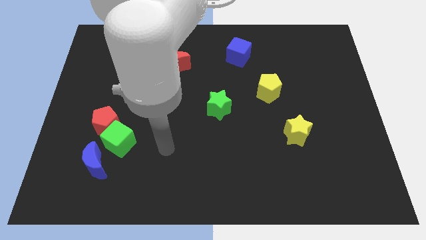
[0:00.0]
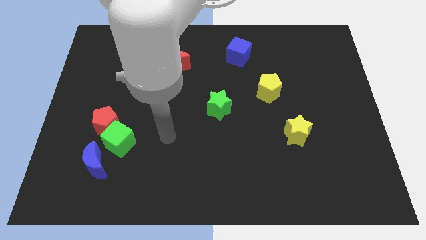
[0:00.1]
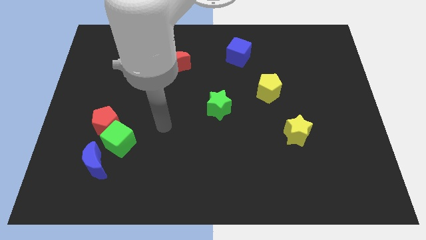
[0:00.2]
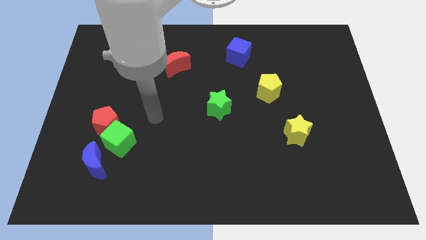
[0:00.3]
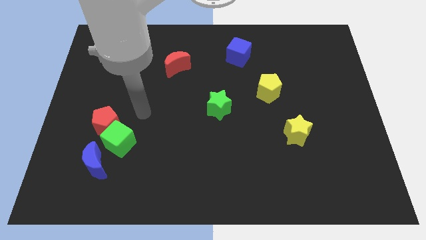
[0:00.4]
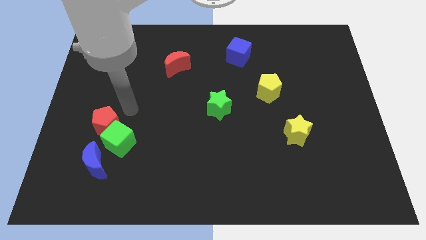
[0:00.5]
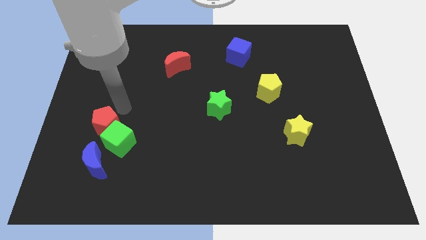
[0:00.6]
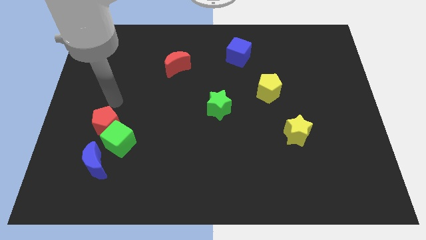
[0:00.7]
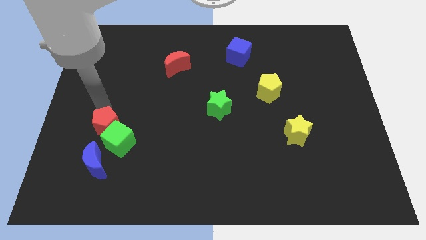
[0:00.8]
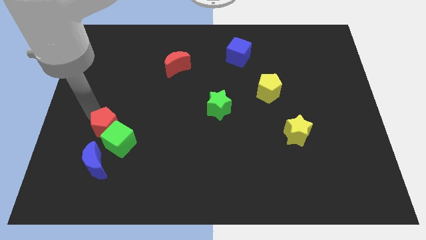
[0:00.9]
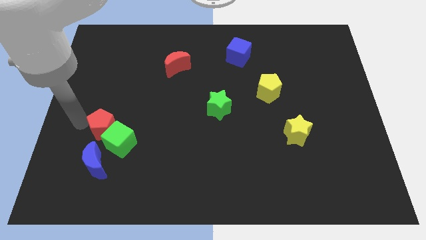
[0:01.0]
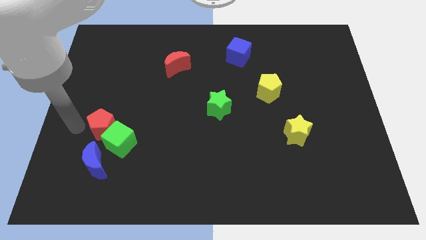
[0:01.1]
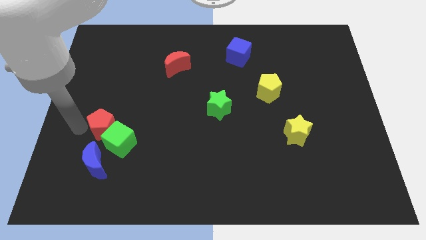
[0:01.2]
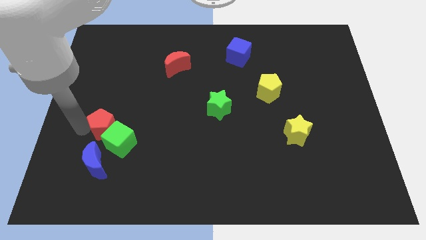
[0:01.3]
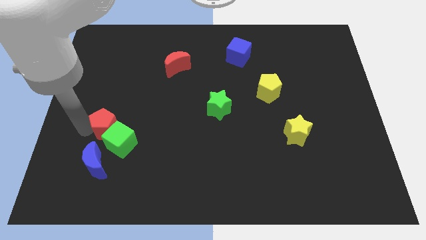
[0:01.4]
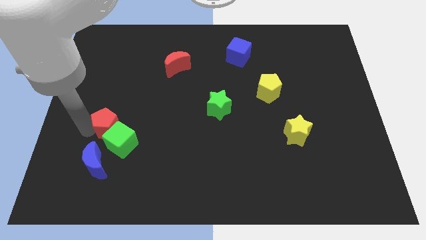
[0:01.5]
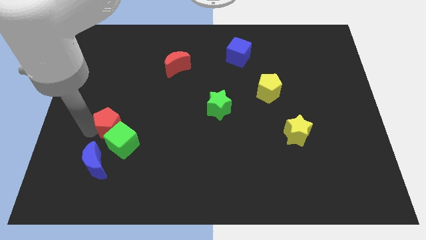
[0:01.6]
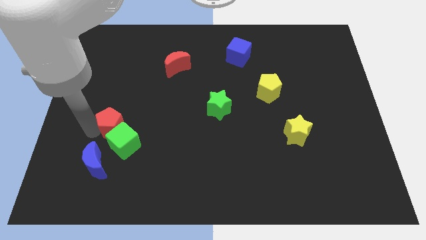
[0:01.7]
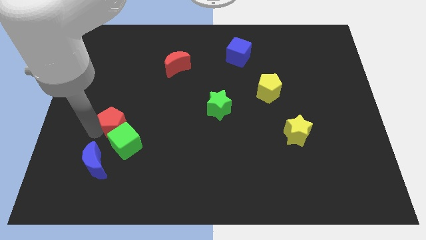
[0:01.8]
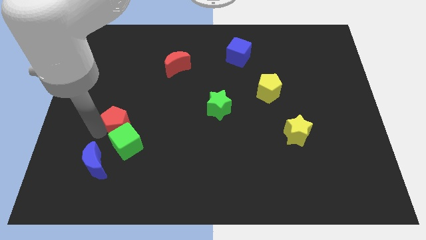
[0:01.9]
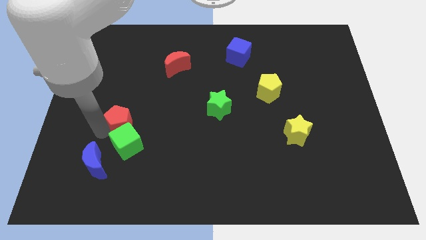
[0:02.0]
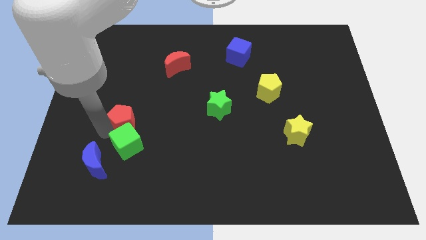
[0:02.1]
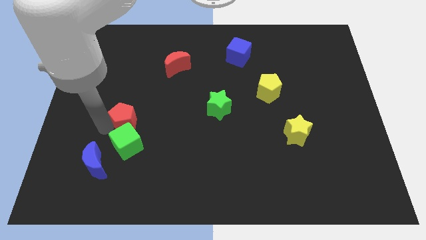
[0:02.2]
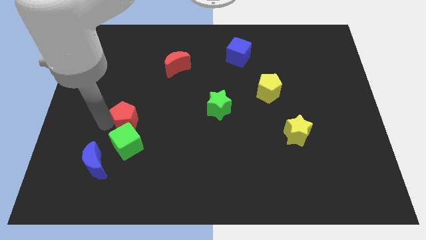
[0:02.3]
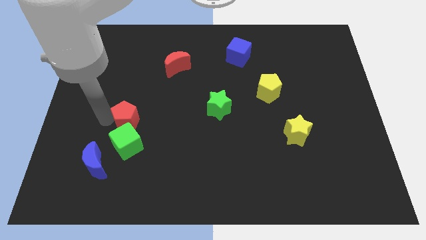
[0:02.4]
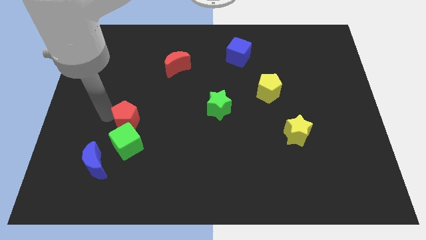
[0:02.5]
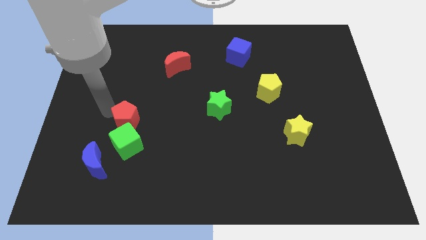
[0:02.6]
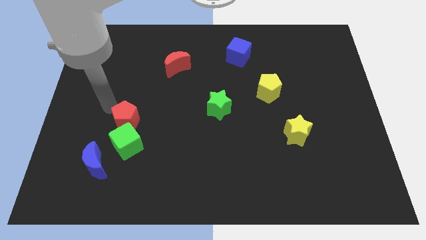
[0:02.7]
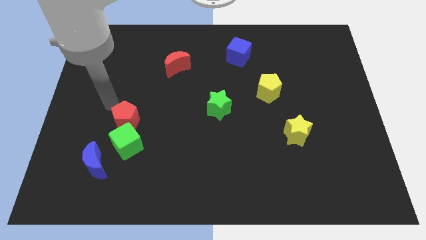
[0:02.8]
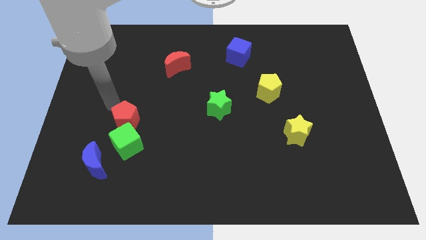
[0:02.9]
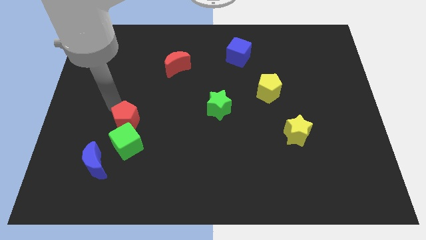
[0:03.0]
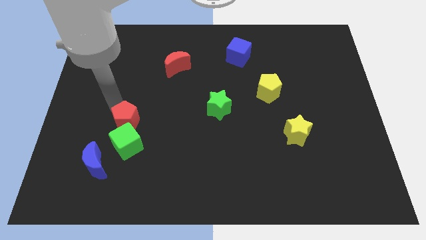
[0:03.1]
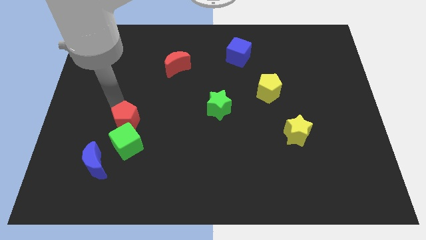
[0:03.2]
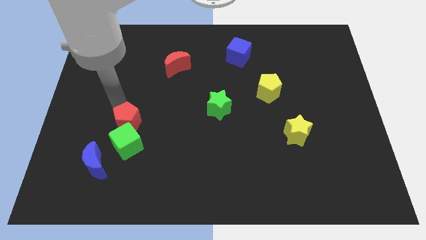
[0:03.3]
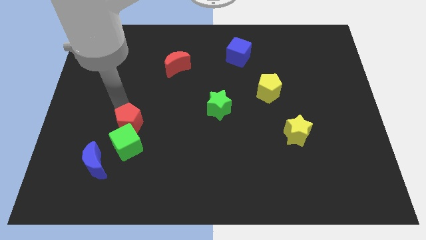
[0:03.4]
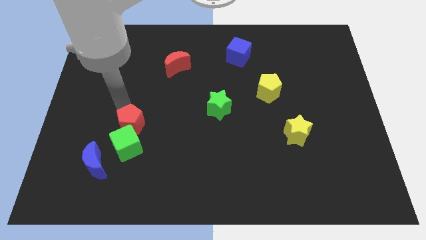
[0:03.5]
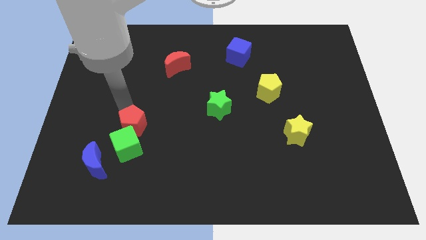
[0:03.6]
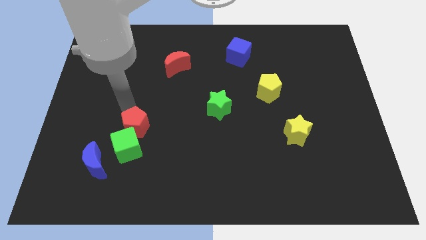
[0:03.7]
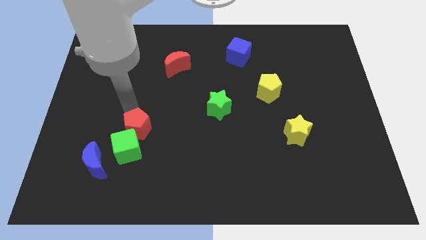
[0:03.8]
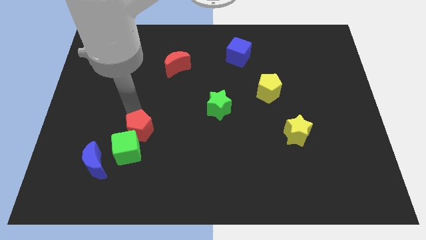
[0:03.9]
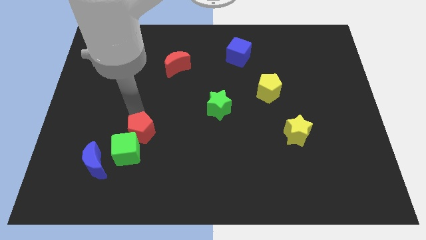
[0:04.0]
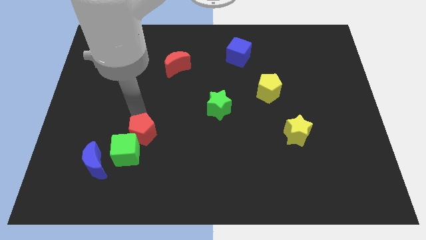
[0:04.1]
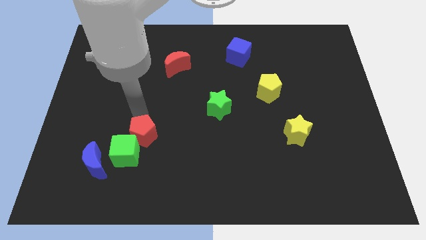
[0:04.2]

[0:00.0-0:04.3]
slightly move the red pentagon downwards and then to the right

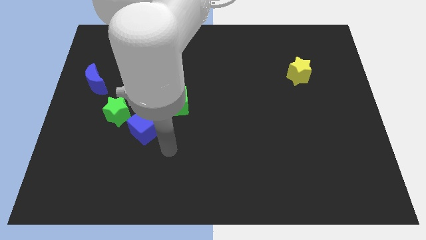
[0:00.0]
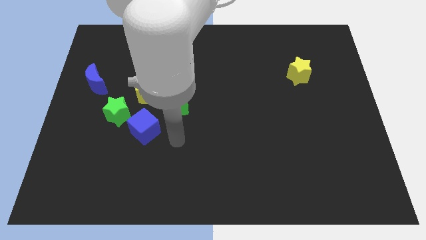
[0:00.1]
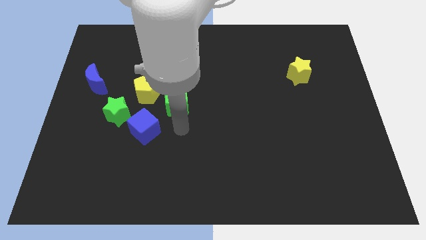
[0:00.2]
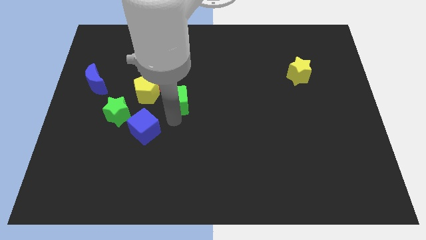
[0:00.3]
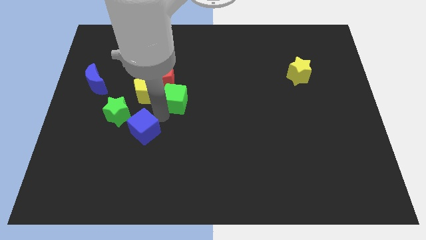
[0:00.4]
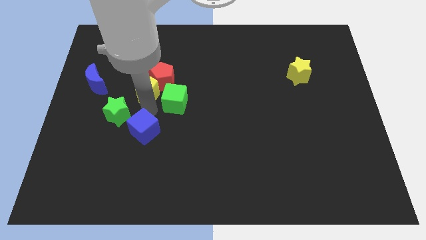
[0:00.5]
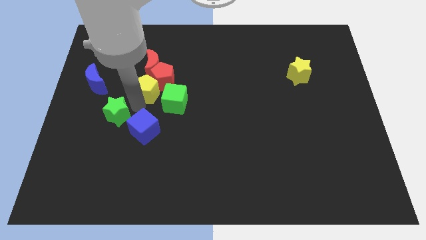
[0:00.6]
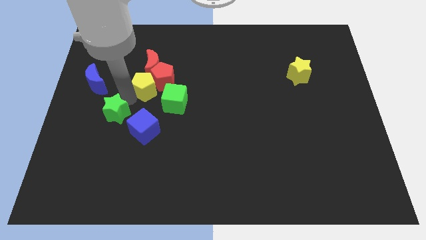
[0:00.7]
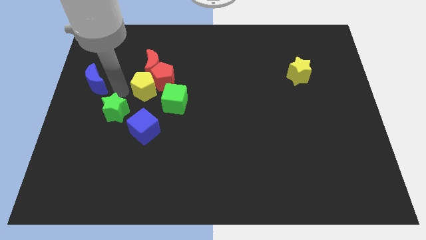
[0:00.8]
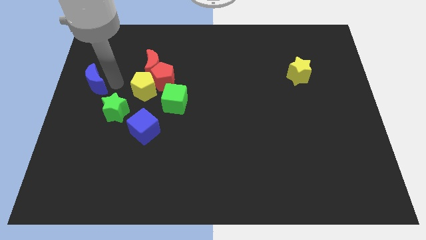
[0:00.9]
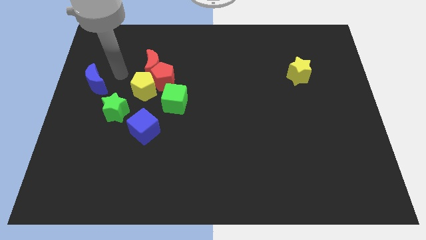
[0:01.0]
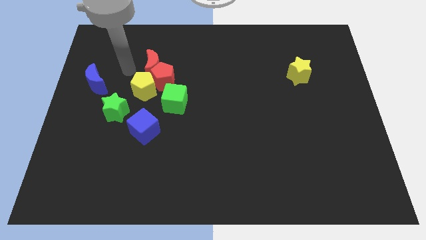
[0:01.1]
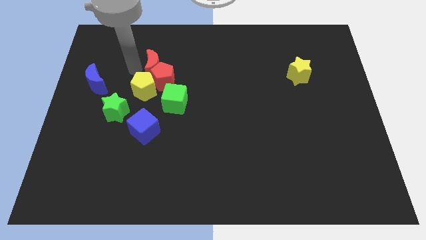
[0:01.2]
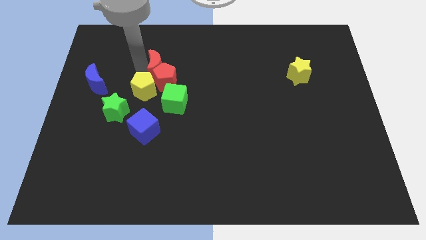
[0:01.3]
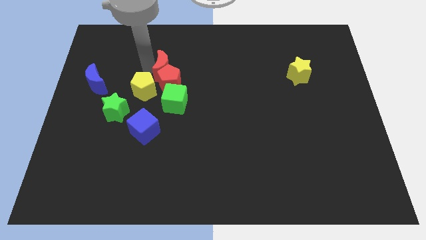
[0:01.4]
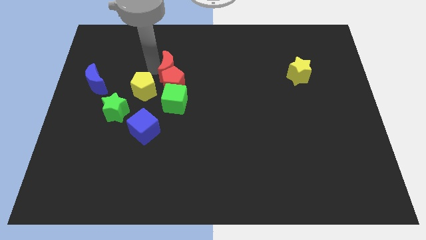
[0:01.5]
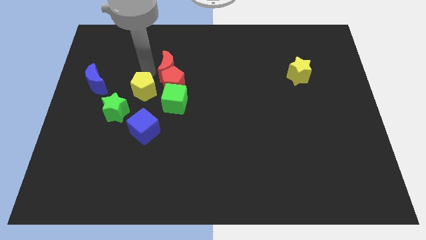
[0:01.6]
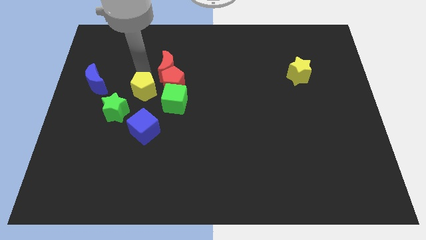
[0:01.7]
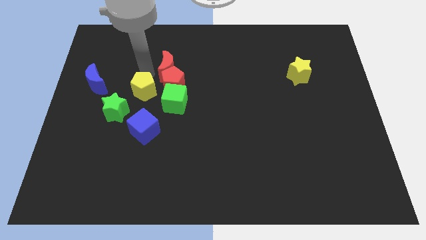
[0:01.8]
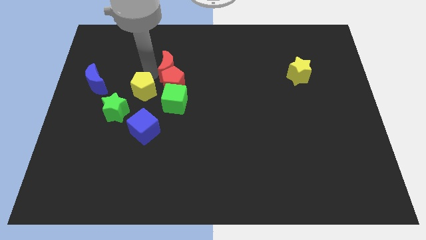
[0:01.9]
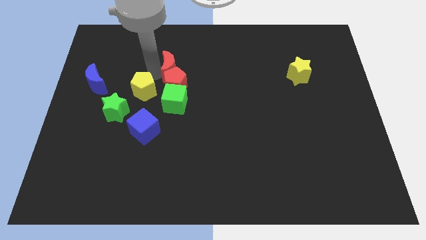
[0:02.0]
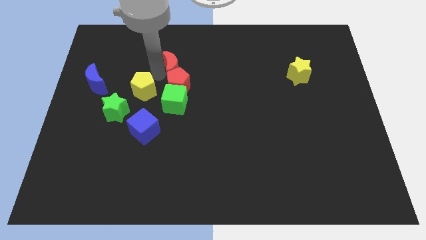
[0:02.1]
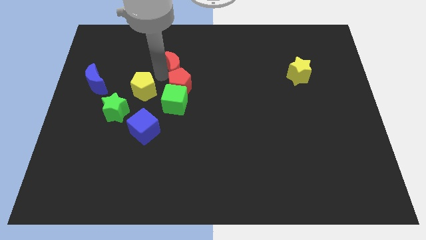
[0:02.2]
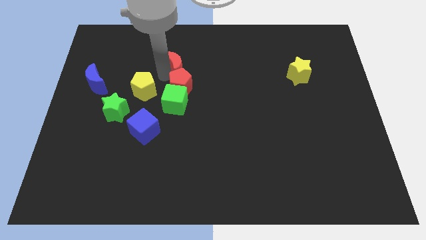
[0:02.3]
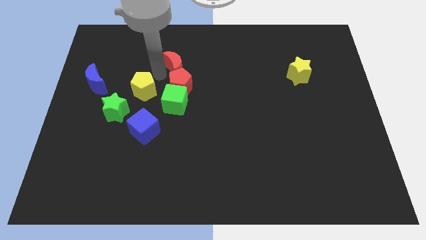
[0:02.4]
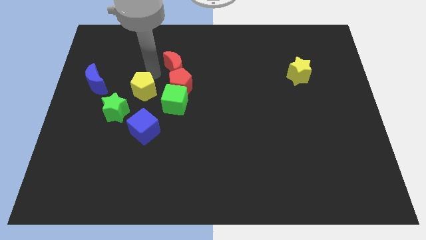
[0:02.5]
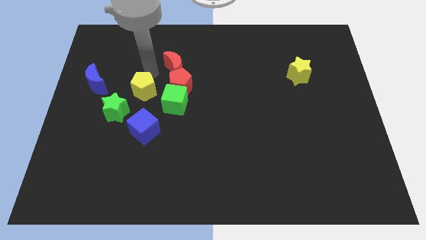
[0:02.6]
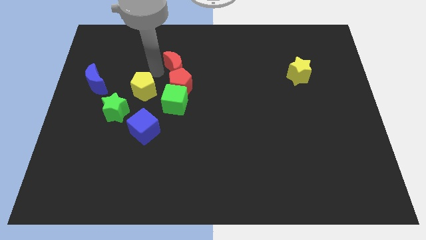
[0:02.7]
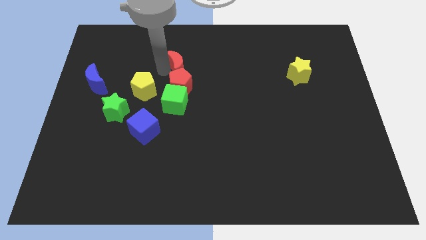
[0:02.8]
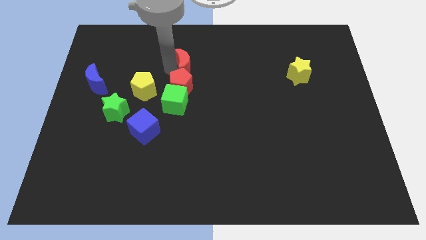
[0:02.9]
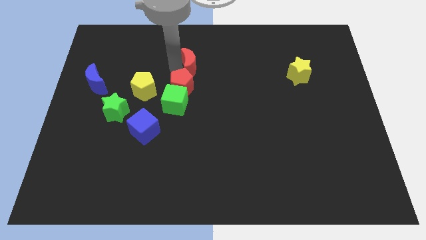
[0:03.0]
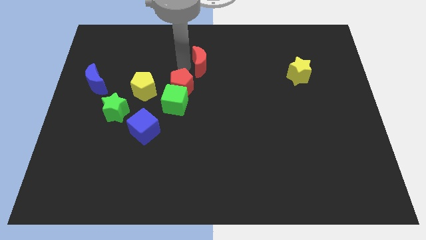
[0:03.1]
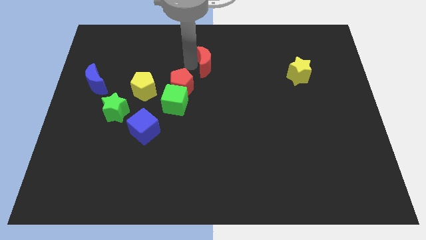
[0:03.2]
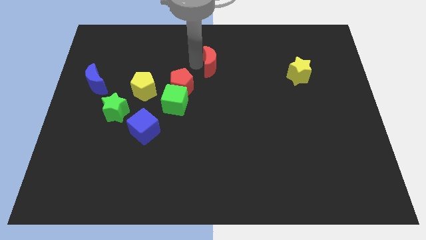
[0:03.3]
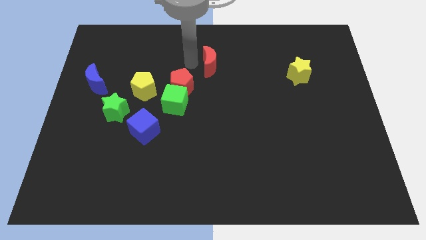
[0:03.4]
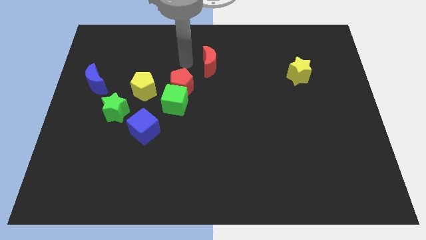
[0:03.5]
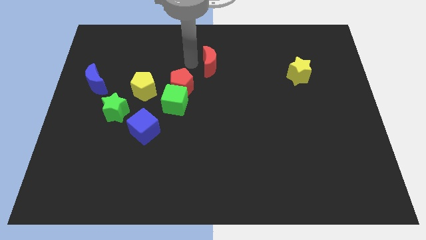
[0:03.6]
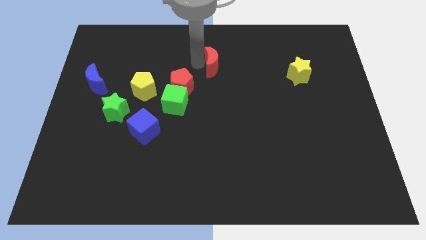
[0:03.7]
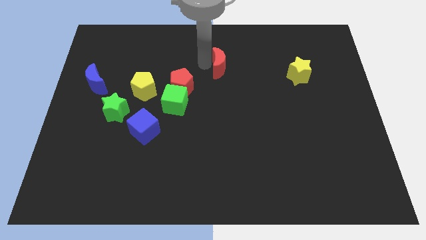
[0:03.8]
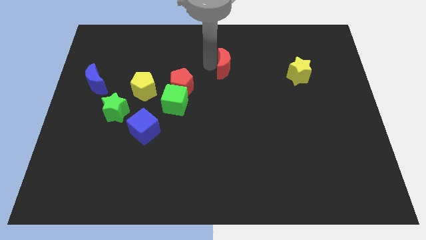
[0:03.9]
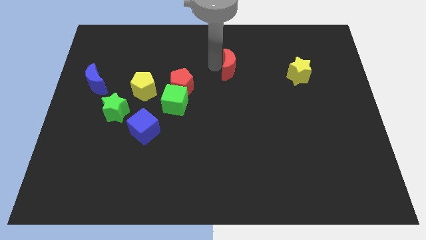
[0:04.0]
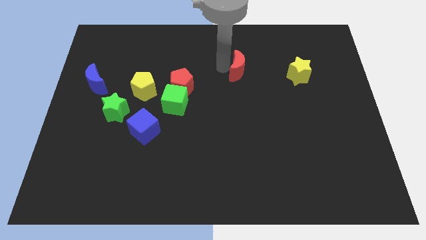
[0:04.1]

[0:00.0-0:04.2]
push the red moon right
